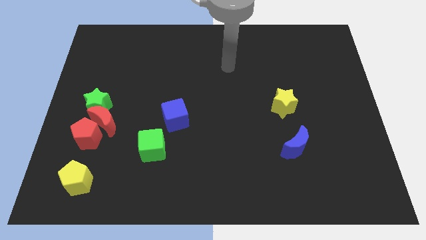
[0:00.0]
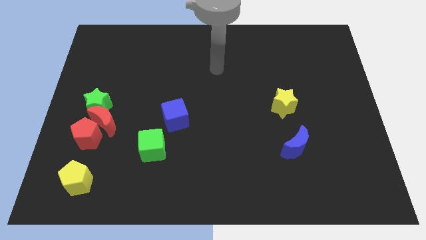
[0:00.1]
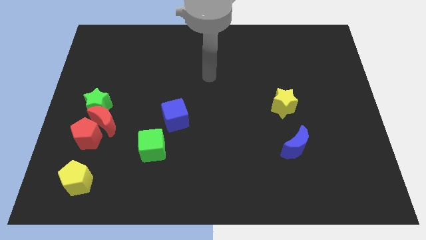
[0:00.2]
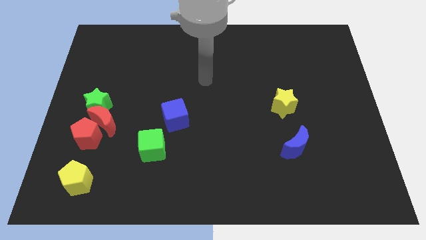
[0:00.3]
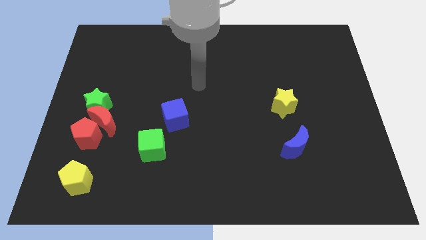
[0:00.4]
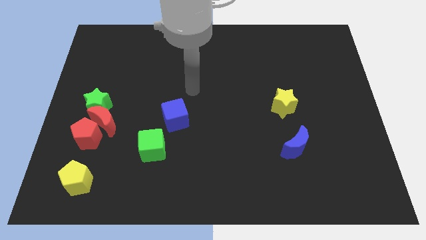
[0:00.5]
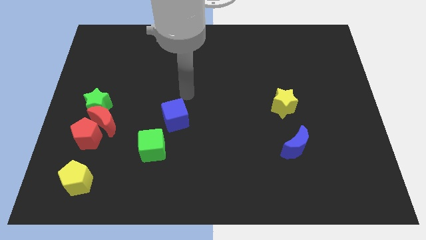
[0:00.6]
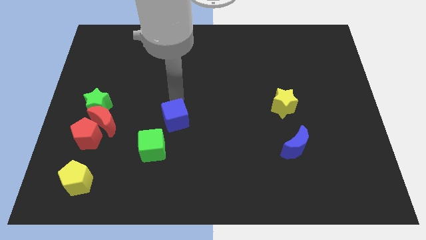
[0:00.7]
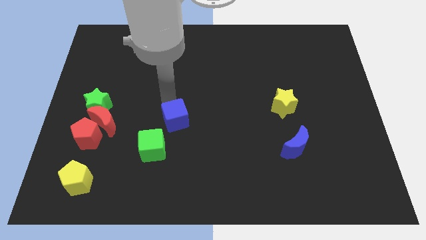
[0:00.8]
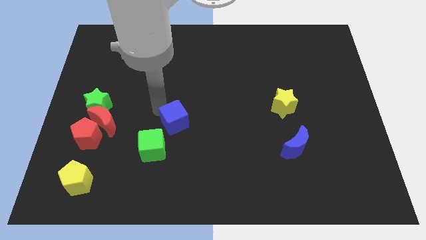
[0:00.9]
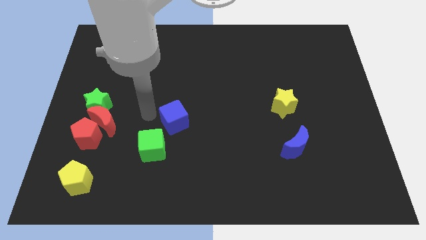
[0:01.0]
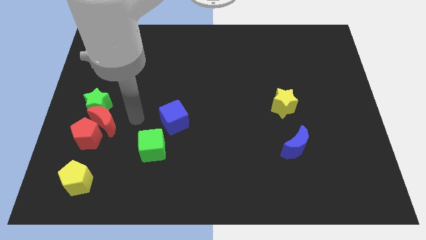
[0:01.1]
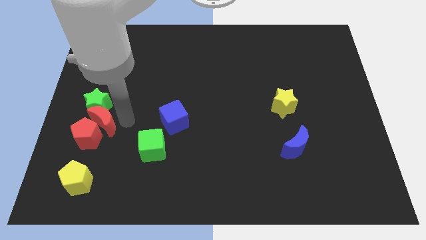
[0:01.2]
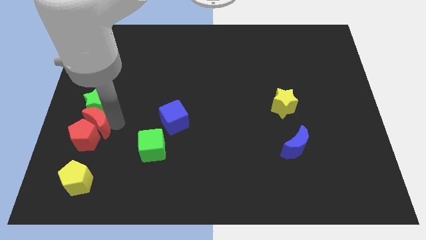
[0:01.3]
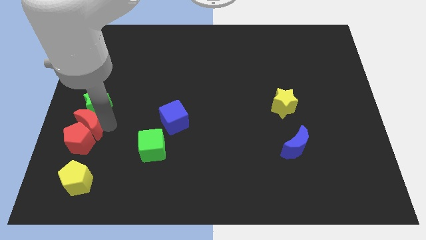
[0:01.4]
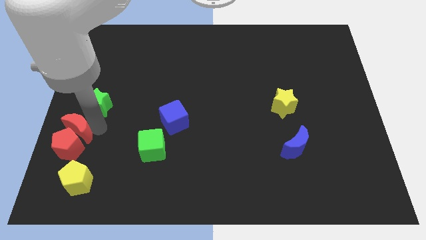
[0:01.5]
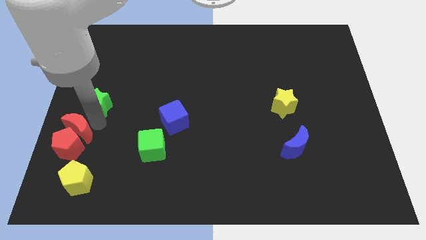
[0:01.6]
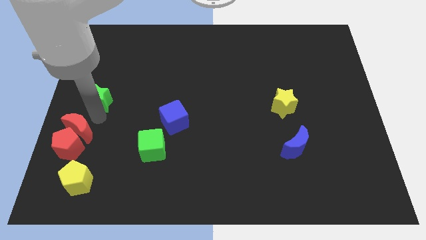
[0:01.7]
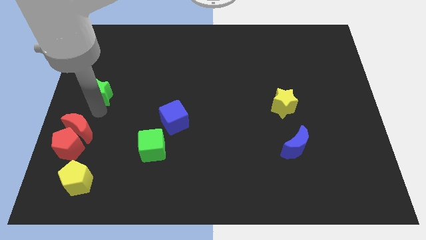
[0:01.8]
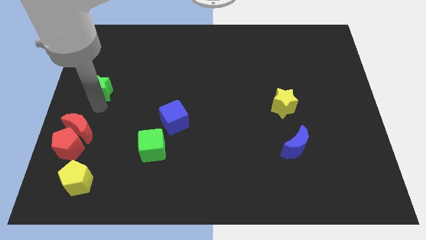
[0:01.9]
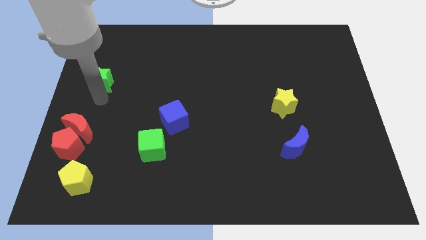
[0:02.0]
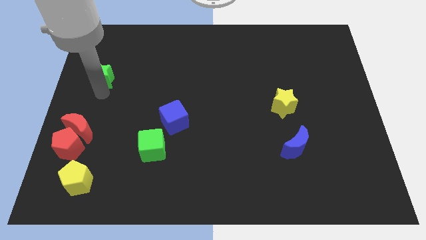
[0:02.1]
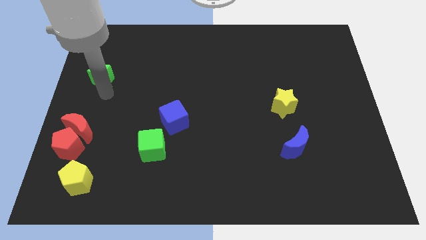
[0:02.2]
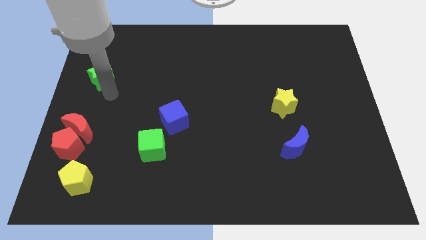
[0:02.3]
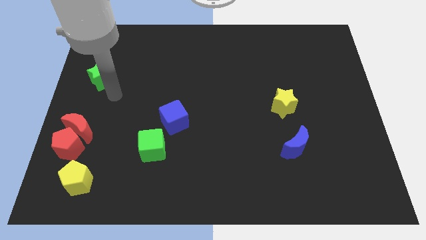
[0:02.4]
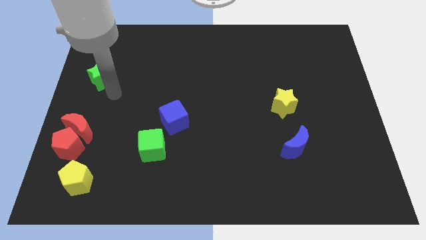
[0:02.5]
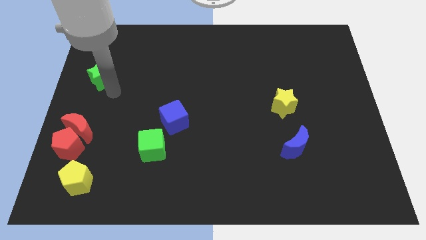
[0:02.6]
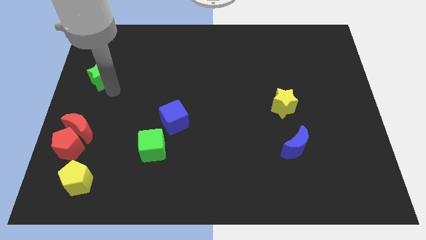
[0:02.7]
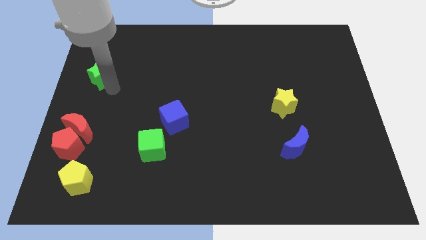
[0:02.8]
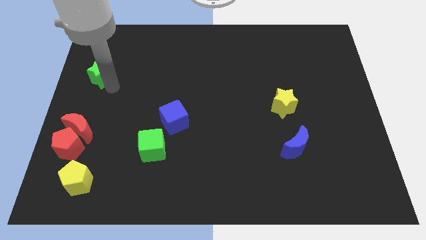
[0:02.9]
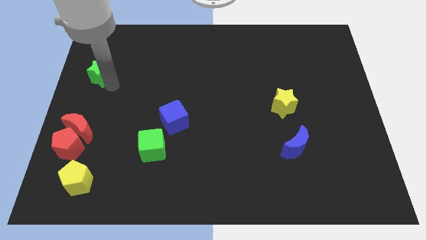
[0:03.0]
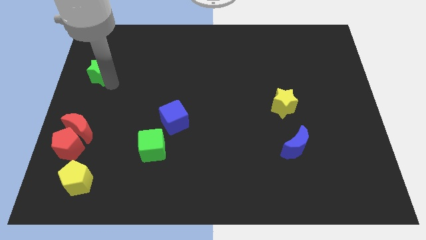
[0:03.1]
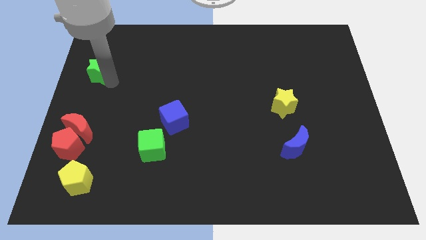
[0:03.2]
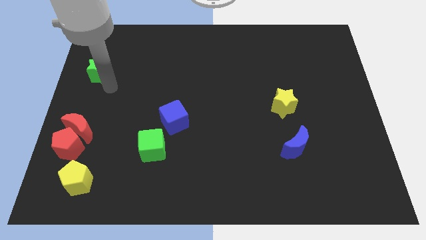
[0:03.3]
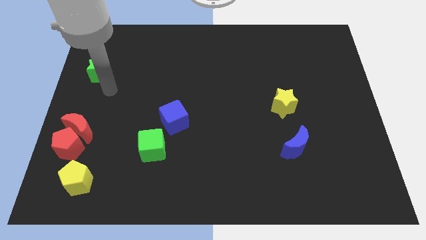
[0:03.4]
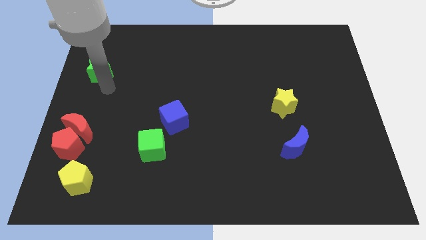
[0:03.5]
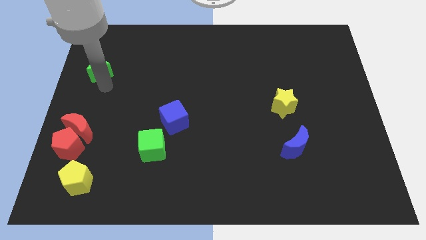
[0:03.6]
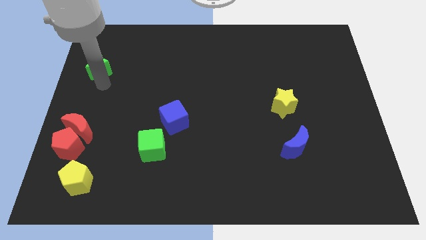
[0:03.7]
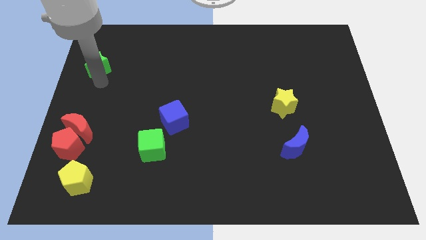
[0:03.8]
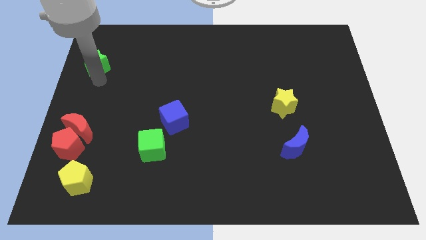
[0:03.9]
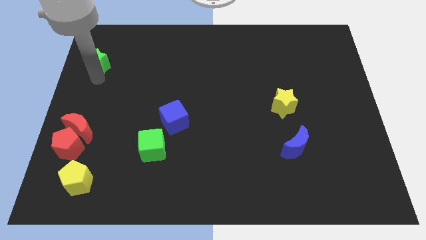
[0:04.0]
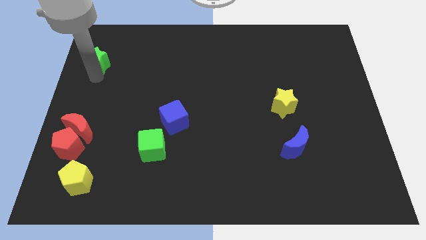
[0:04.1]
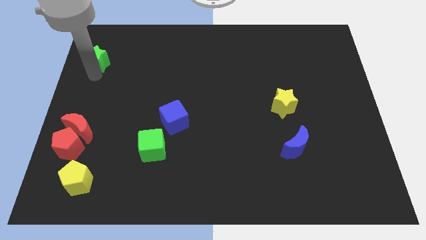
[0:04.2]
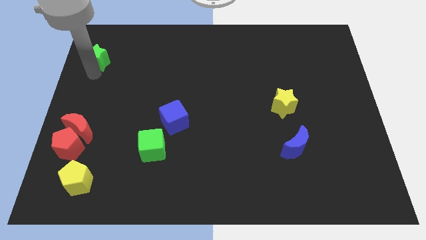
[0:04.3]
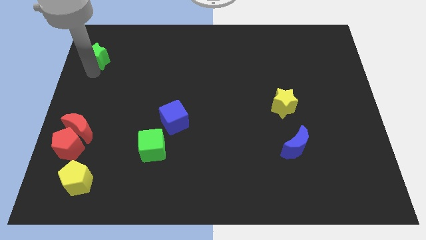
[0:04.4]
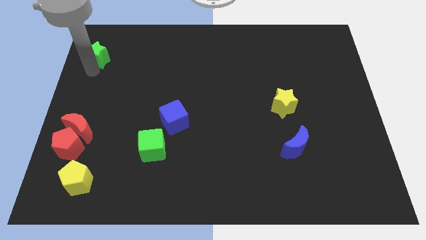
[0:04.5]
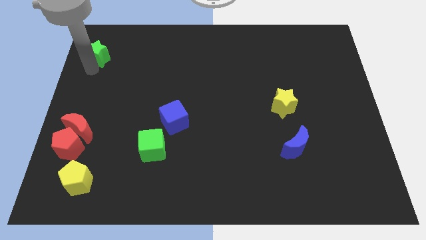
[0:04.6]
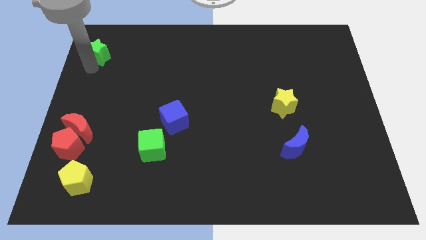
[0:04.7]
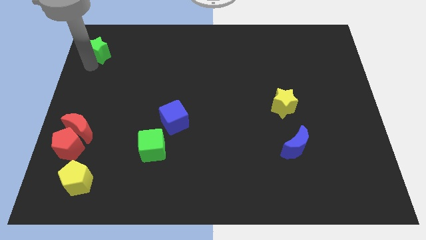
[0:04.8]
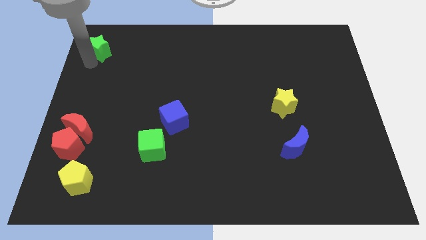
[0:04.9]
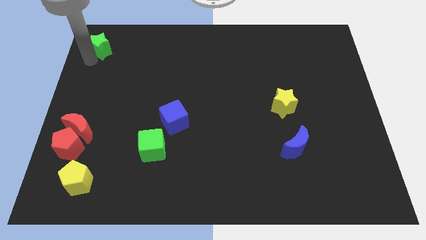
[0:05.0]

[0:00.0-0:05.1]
put the green star to the top left

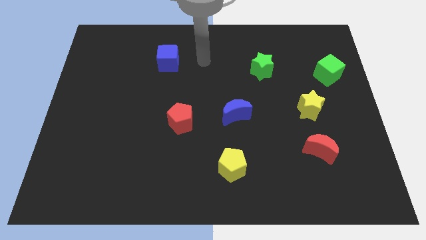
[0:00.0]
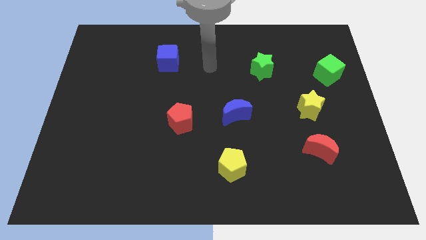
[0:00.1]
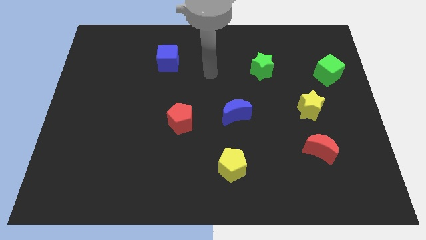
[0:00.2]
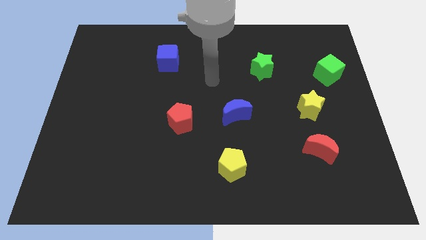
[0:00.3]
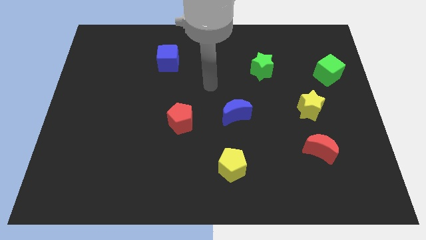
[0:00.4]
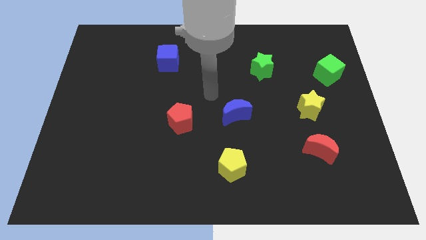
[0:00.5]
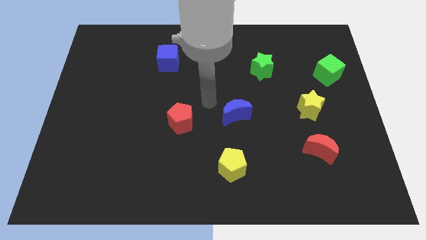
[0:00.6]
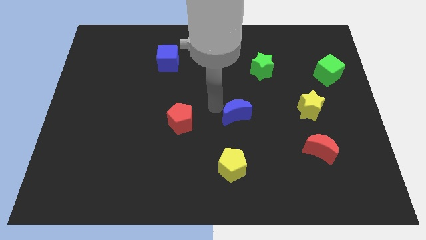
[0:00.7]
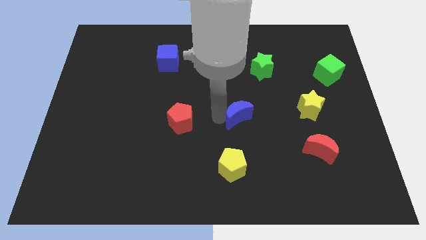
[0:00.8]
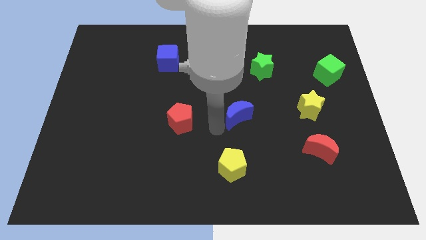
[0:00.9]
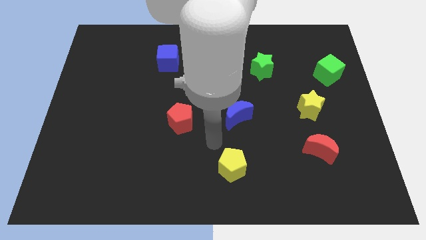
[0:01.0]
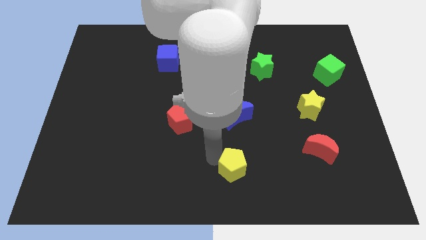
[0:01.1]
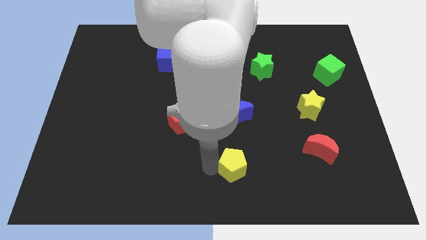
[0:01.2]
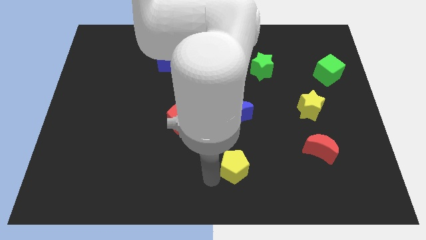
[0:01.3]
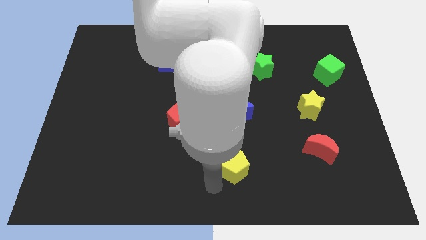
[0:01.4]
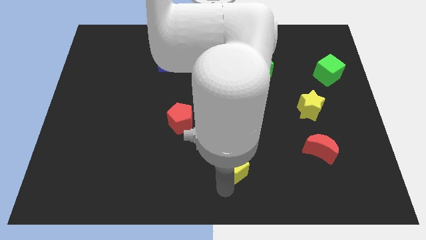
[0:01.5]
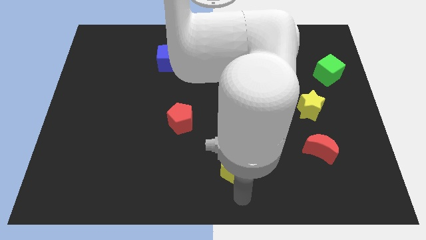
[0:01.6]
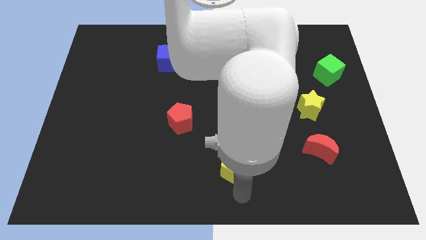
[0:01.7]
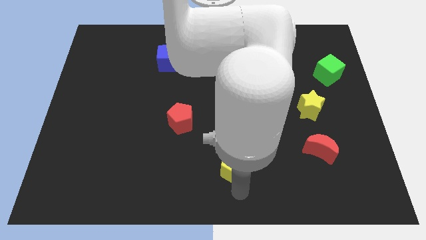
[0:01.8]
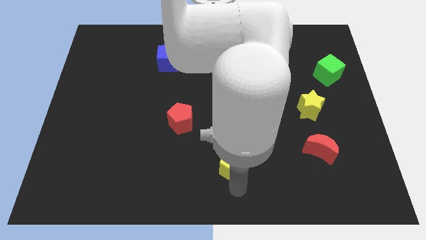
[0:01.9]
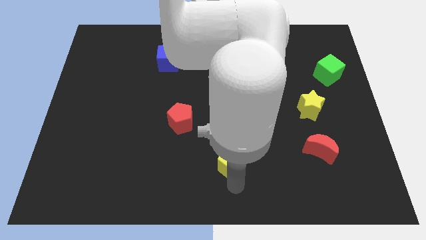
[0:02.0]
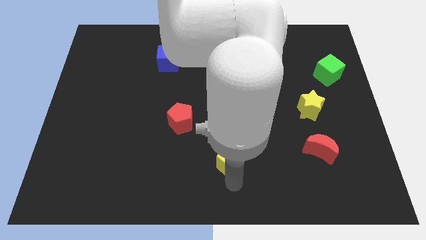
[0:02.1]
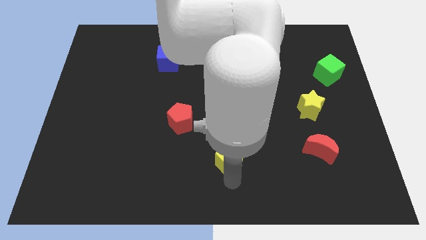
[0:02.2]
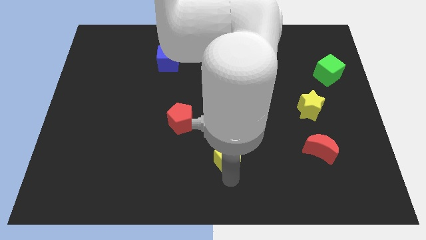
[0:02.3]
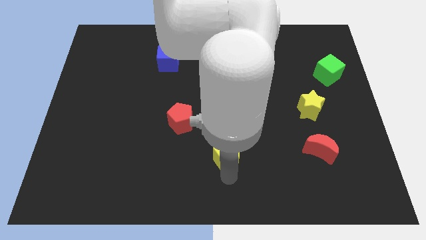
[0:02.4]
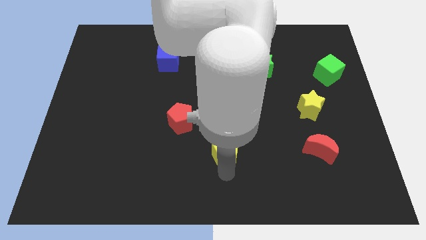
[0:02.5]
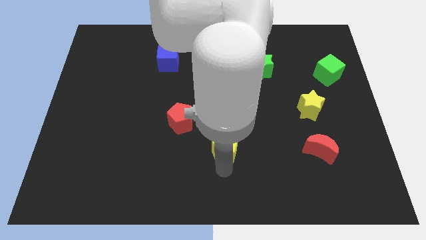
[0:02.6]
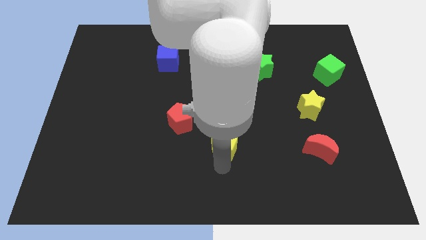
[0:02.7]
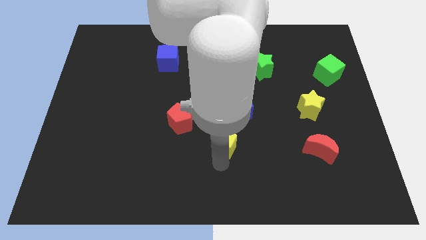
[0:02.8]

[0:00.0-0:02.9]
push the yellow pentagon to the center
